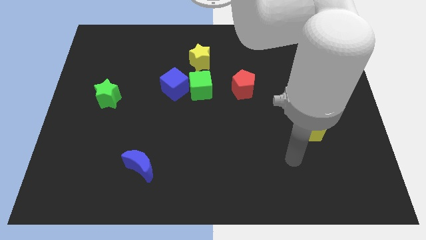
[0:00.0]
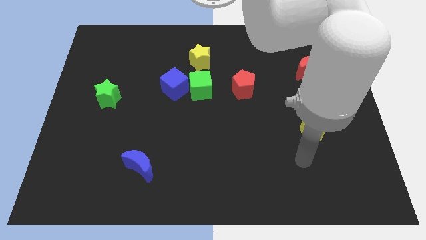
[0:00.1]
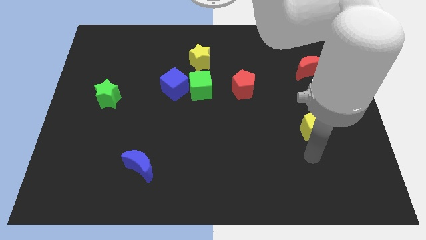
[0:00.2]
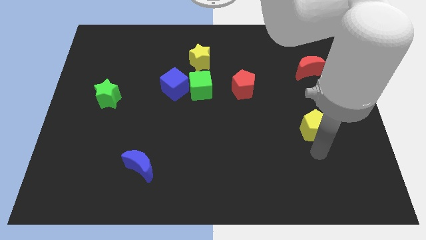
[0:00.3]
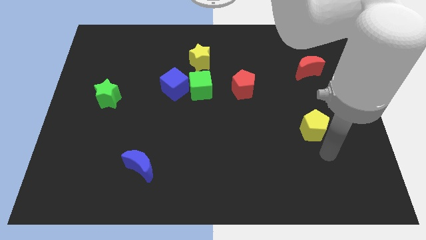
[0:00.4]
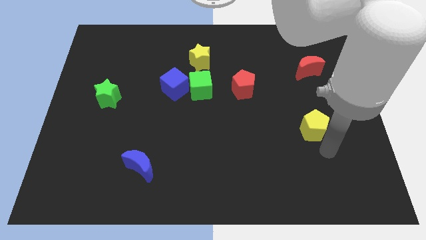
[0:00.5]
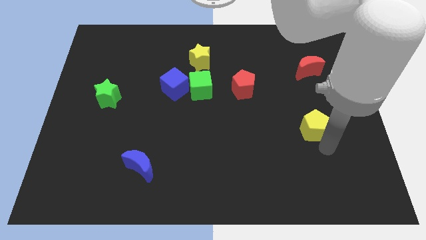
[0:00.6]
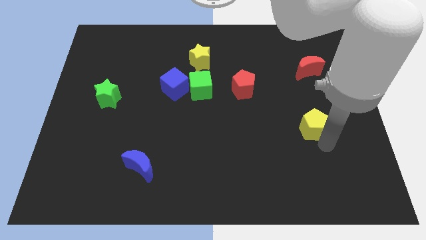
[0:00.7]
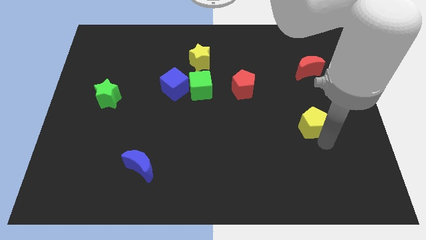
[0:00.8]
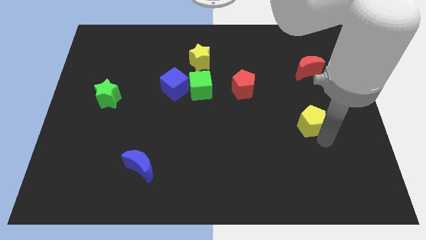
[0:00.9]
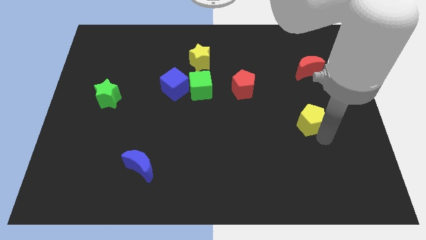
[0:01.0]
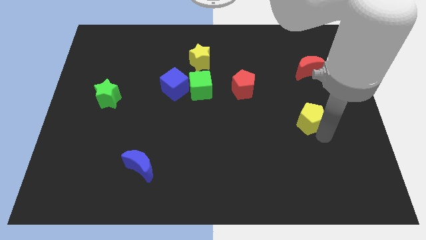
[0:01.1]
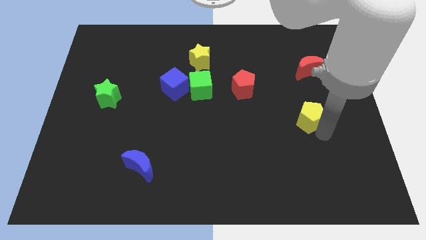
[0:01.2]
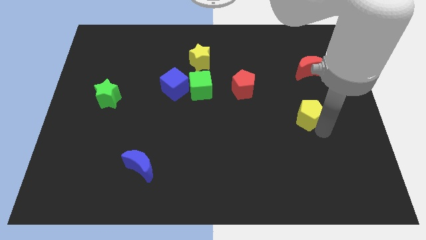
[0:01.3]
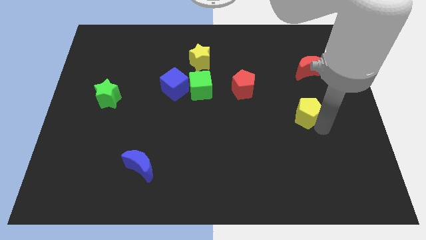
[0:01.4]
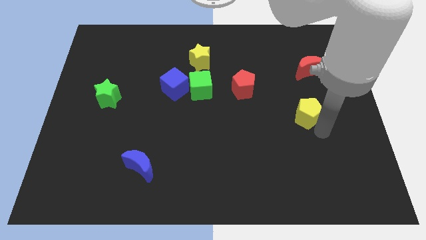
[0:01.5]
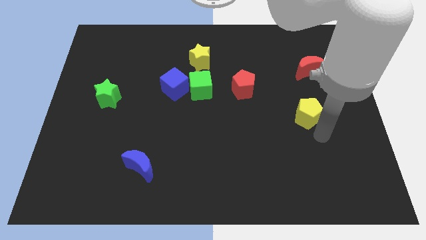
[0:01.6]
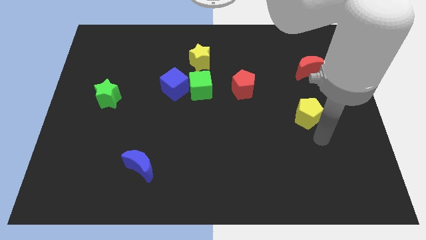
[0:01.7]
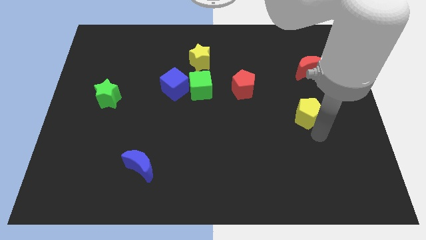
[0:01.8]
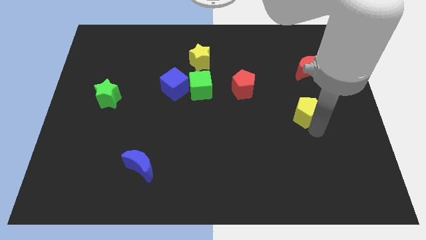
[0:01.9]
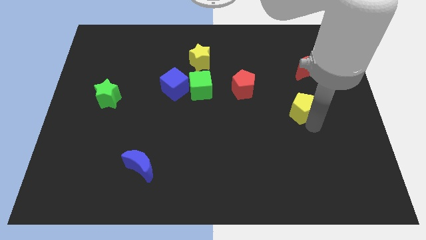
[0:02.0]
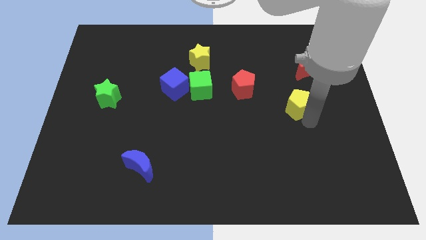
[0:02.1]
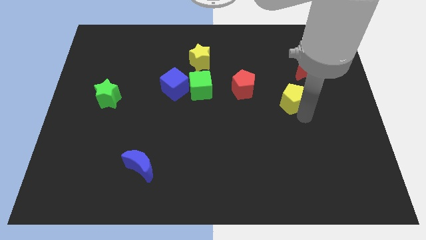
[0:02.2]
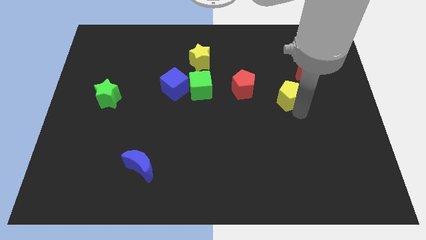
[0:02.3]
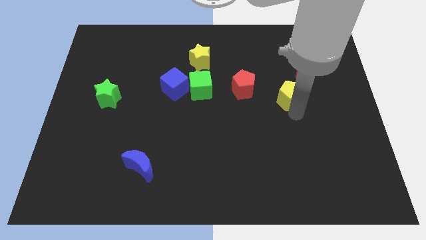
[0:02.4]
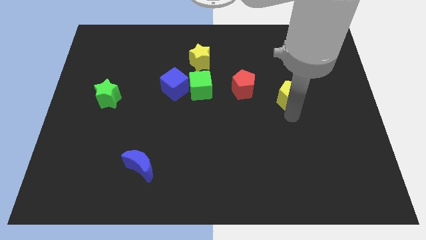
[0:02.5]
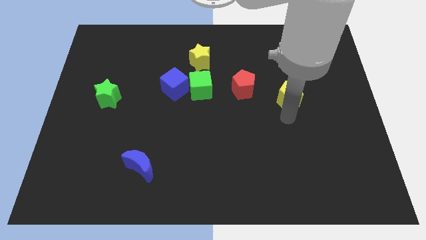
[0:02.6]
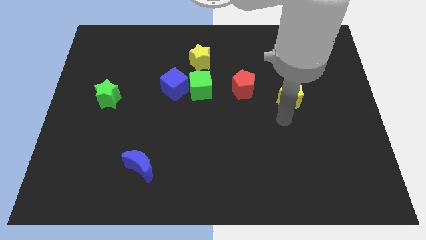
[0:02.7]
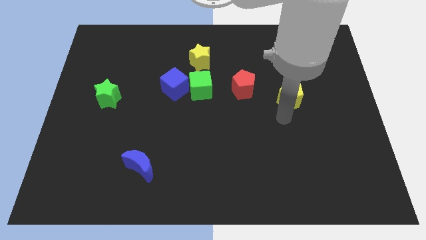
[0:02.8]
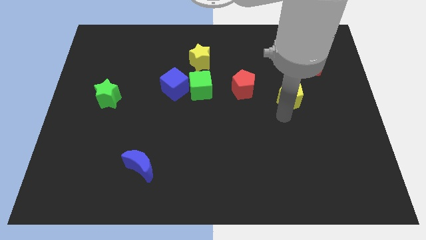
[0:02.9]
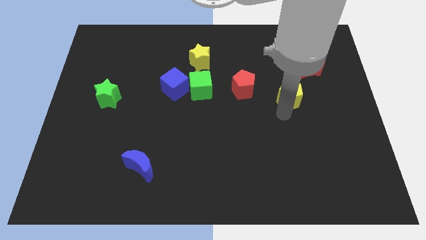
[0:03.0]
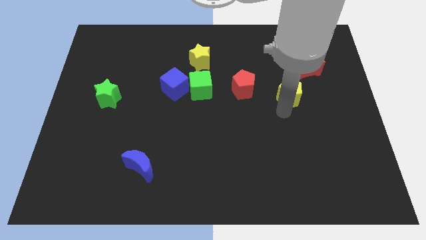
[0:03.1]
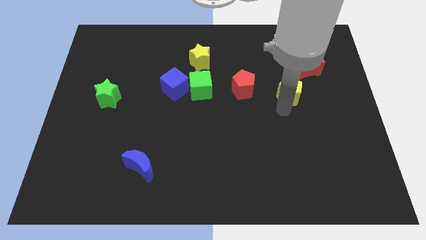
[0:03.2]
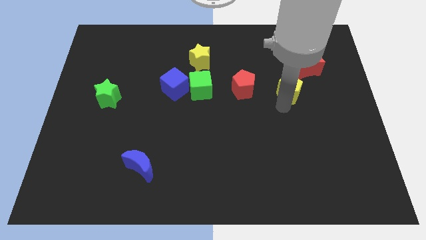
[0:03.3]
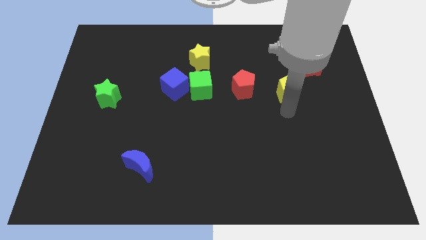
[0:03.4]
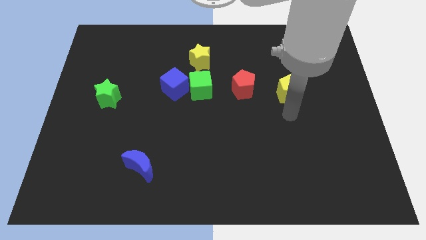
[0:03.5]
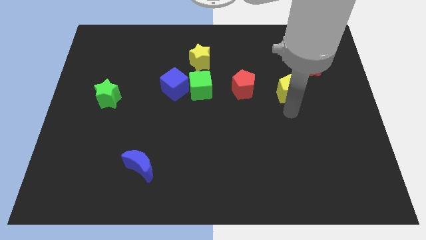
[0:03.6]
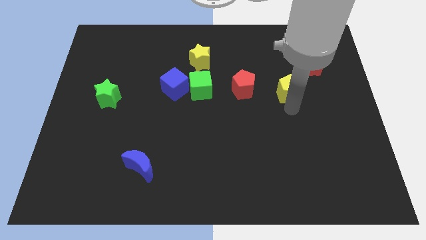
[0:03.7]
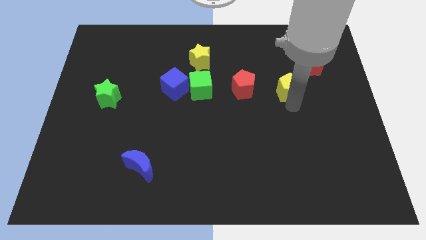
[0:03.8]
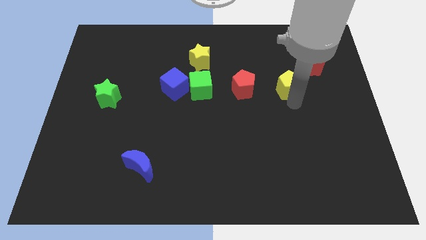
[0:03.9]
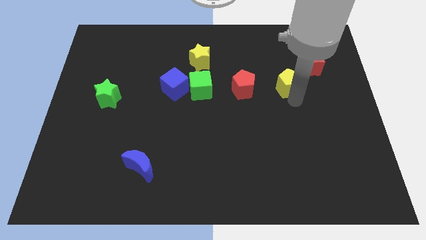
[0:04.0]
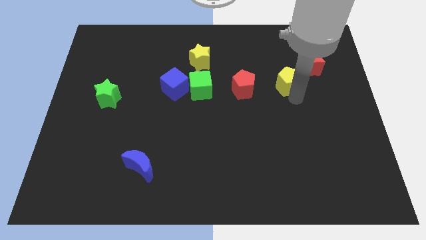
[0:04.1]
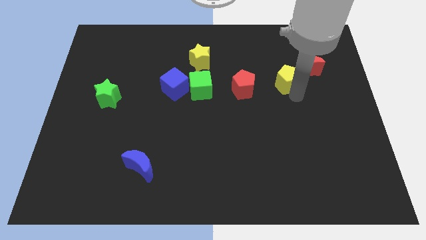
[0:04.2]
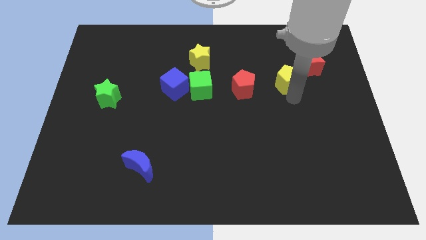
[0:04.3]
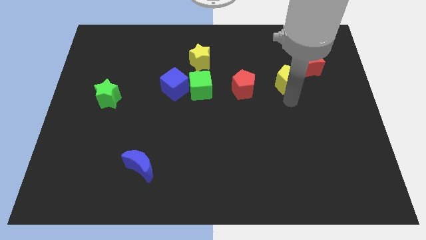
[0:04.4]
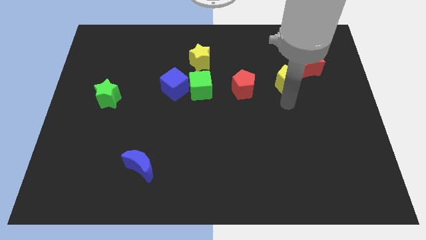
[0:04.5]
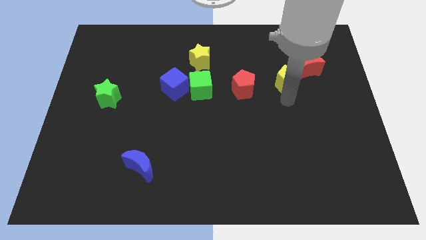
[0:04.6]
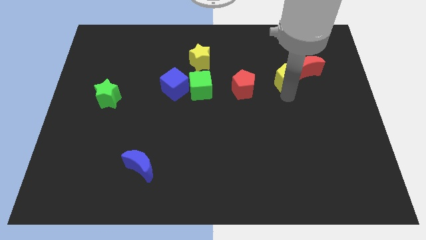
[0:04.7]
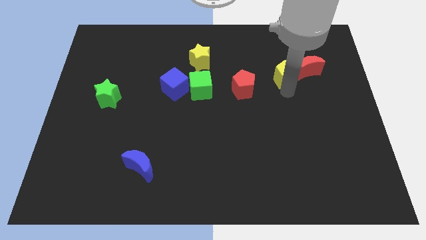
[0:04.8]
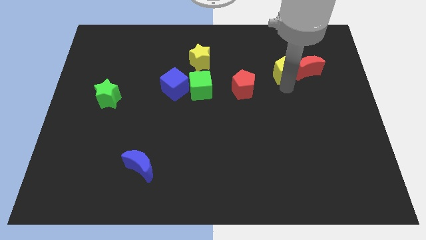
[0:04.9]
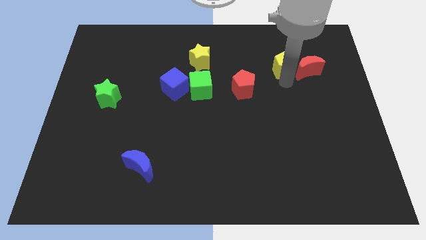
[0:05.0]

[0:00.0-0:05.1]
push the yellow pentagon to the top left side of the red moon

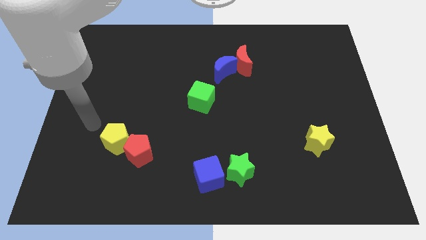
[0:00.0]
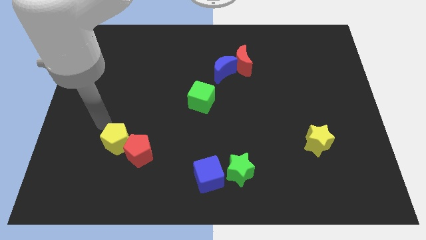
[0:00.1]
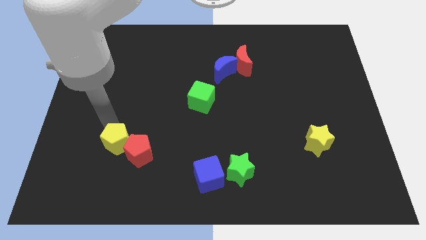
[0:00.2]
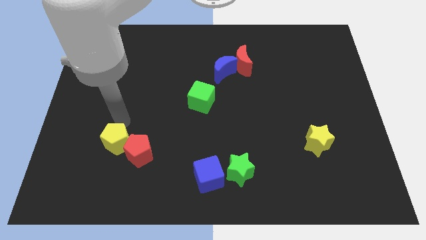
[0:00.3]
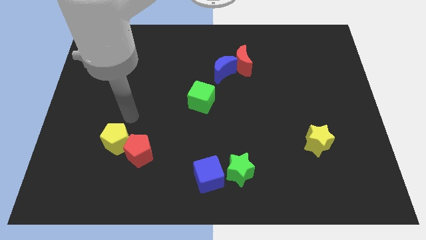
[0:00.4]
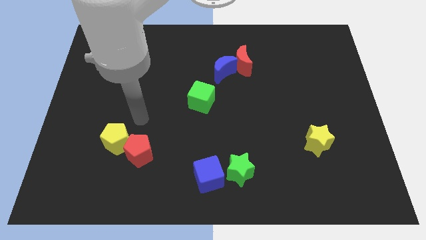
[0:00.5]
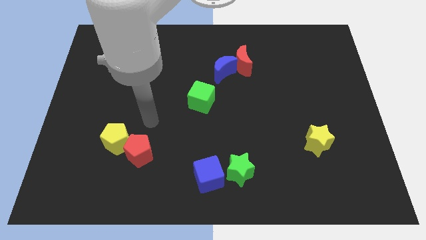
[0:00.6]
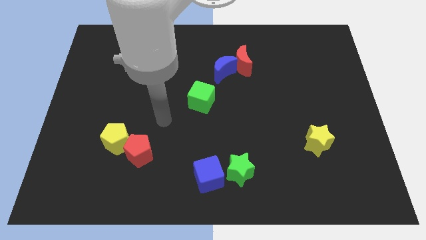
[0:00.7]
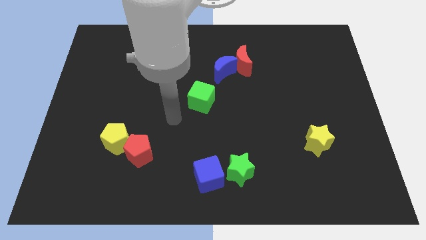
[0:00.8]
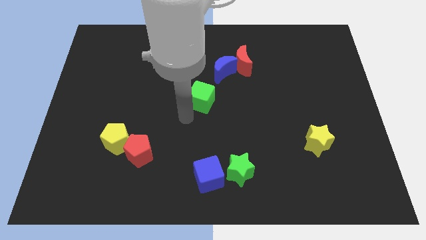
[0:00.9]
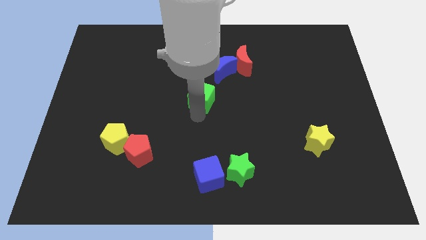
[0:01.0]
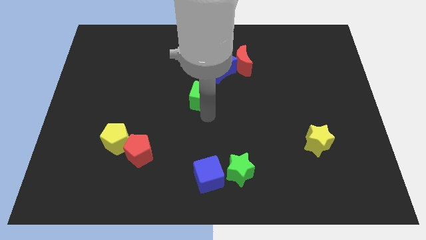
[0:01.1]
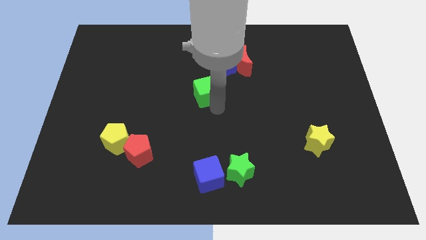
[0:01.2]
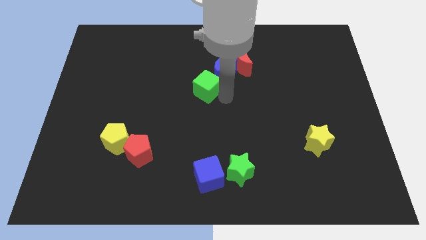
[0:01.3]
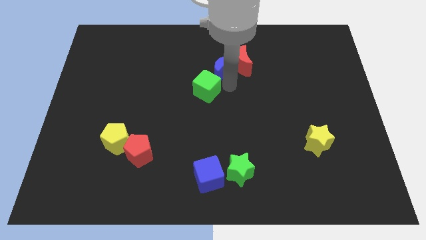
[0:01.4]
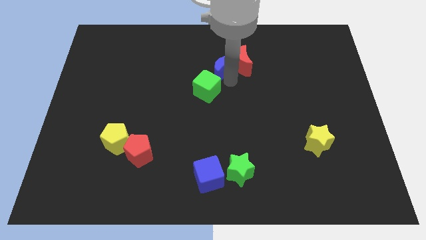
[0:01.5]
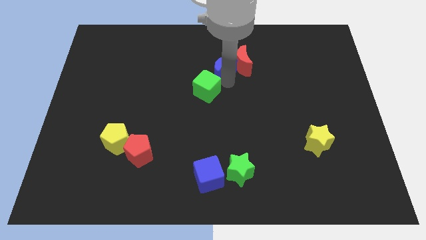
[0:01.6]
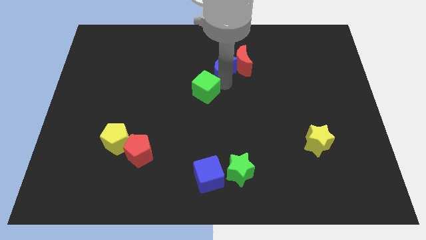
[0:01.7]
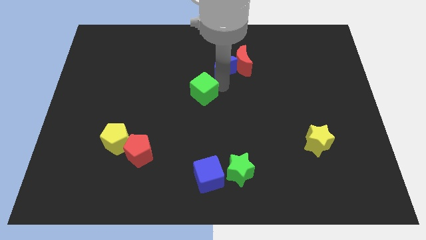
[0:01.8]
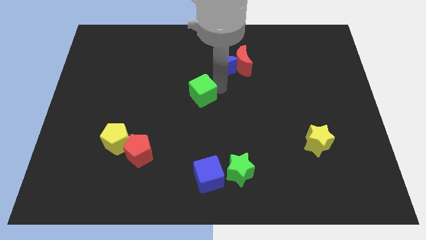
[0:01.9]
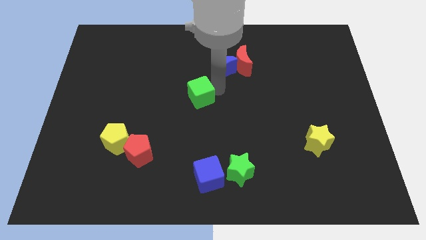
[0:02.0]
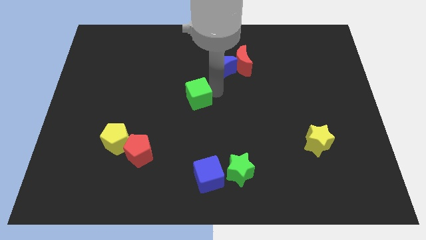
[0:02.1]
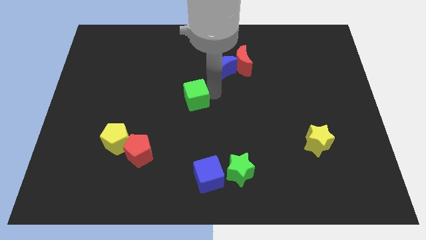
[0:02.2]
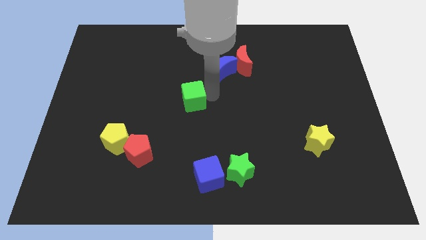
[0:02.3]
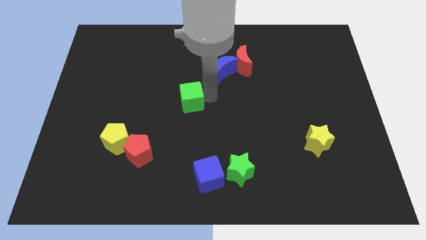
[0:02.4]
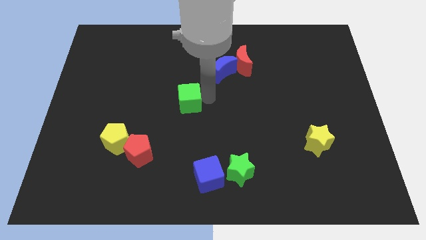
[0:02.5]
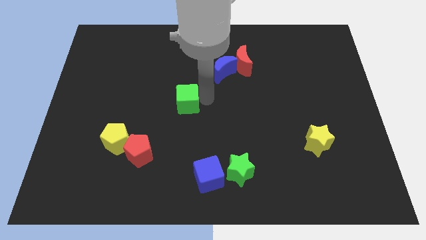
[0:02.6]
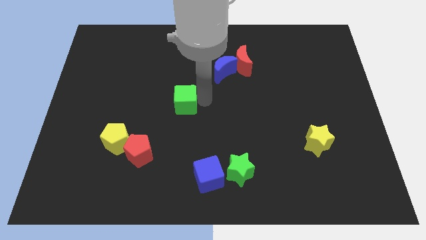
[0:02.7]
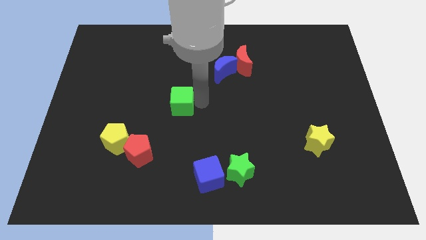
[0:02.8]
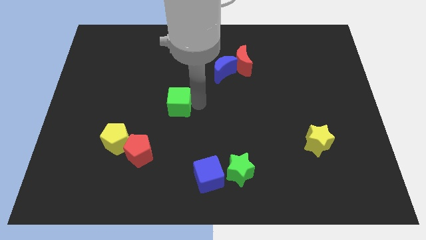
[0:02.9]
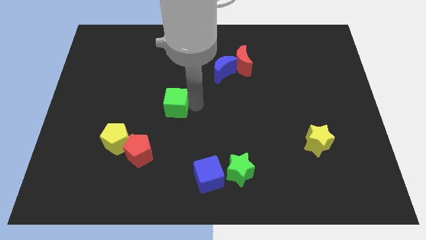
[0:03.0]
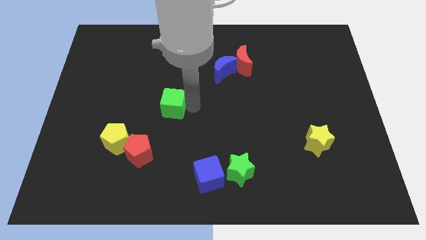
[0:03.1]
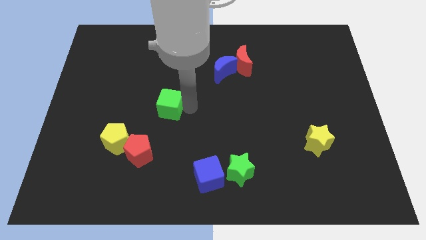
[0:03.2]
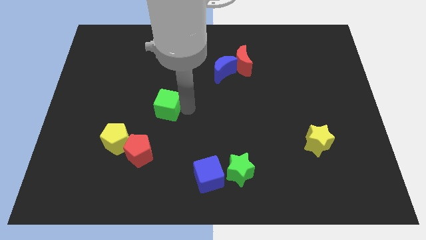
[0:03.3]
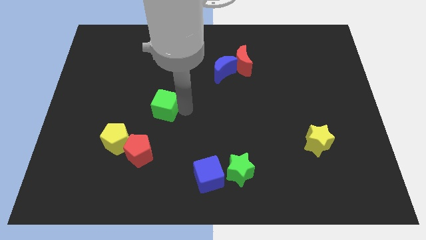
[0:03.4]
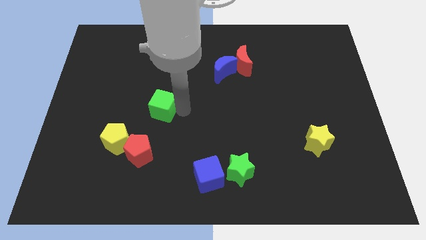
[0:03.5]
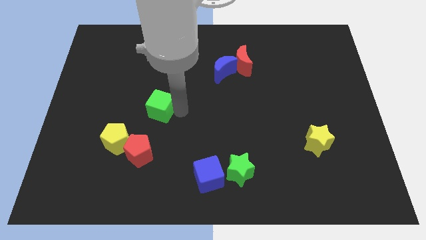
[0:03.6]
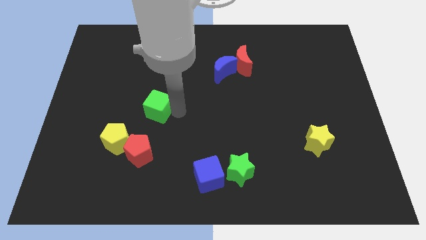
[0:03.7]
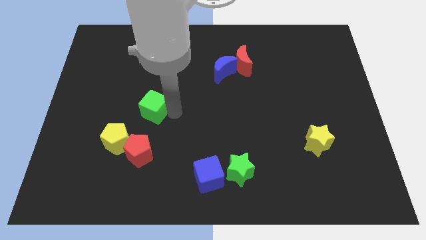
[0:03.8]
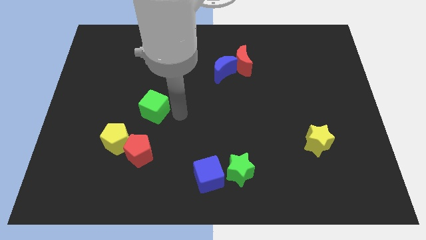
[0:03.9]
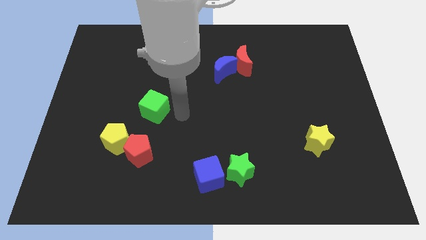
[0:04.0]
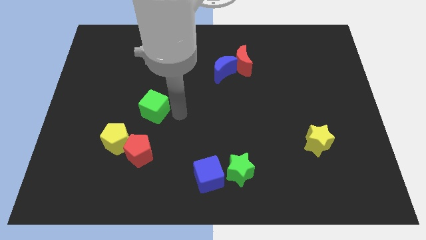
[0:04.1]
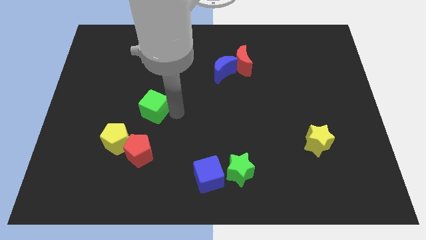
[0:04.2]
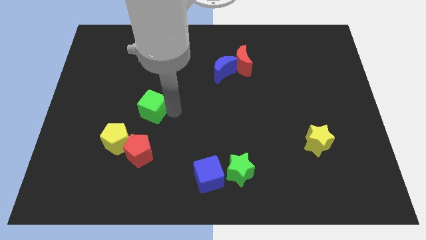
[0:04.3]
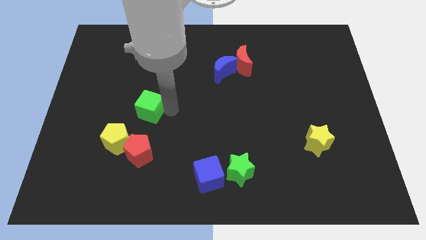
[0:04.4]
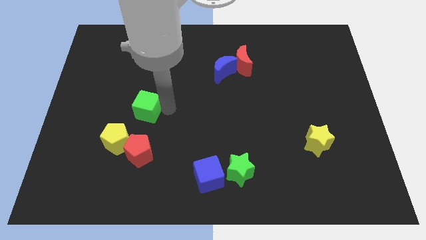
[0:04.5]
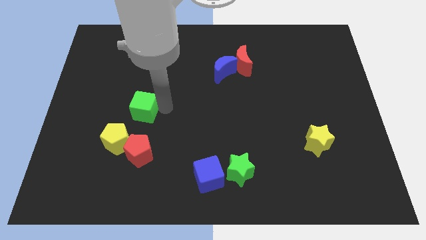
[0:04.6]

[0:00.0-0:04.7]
slide the green cube above the yellow pentagon
